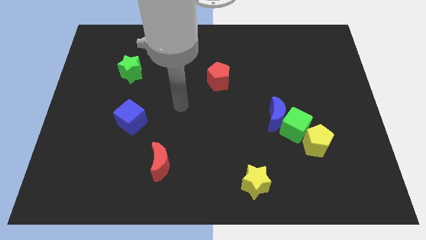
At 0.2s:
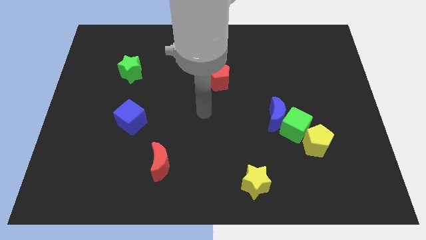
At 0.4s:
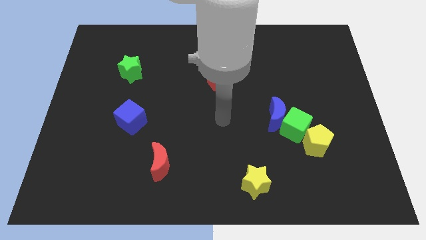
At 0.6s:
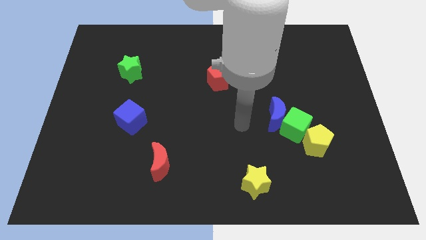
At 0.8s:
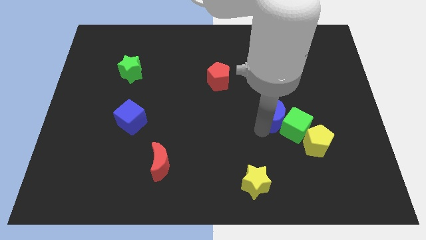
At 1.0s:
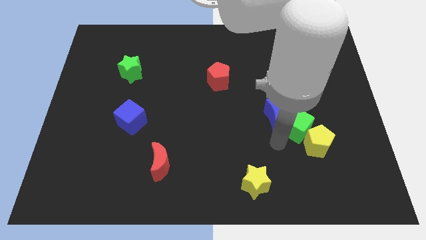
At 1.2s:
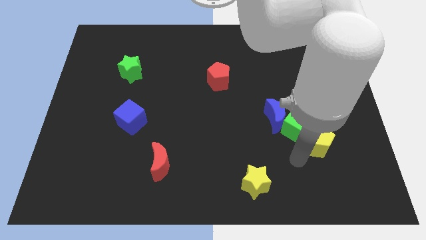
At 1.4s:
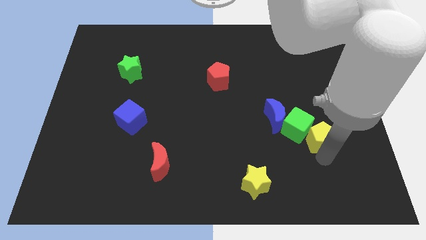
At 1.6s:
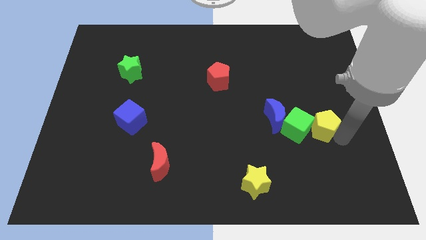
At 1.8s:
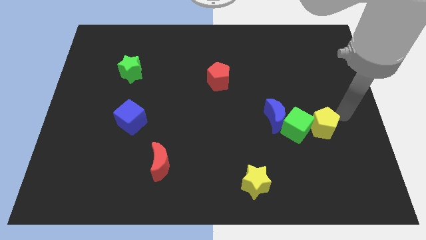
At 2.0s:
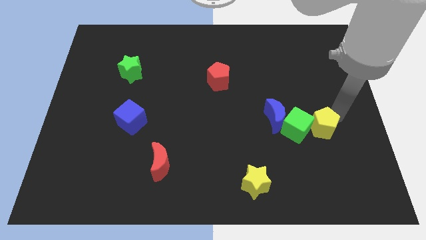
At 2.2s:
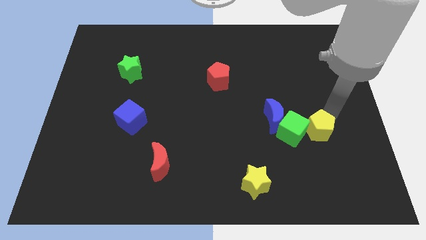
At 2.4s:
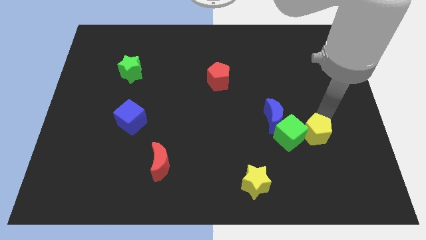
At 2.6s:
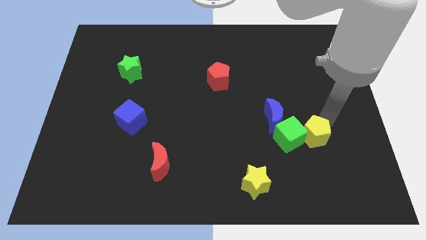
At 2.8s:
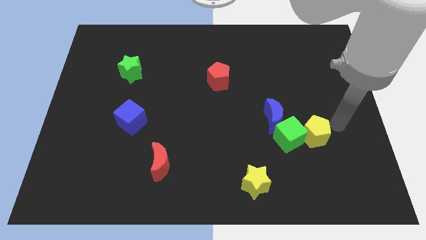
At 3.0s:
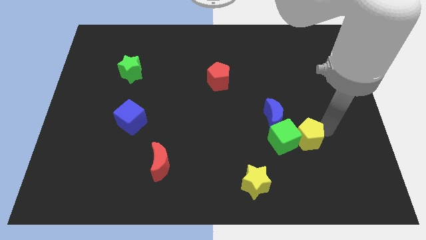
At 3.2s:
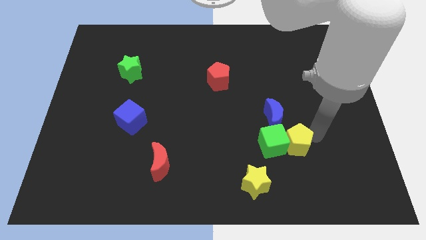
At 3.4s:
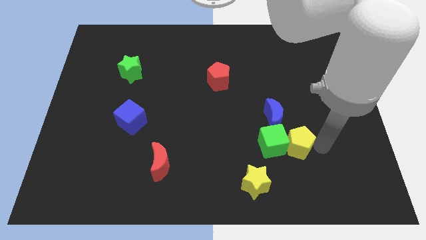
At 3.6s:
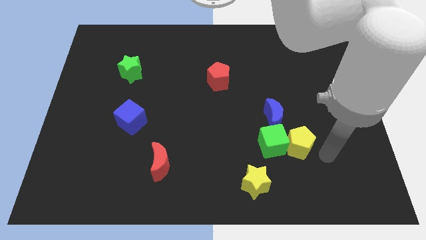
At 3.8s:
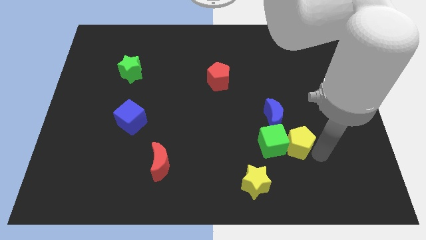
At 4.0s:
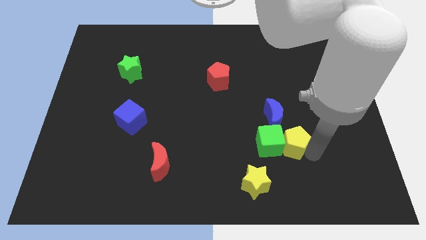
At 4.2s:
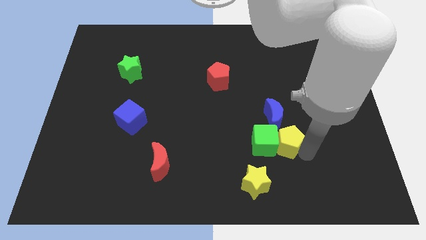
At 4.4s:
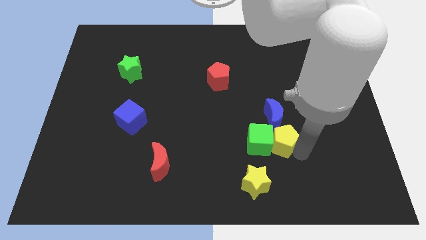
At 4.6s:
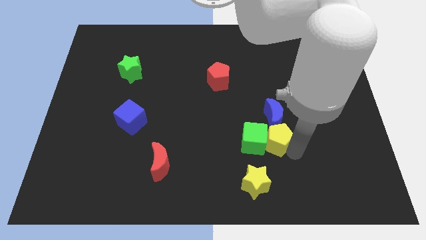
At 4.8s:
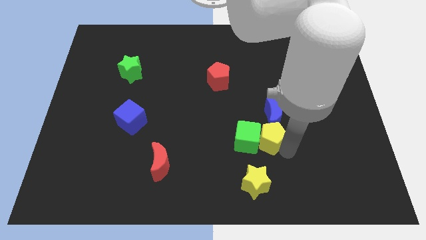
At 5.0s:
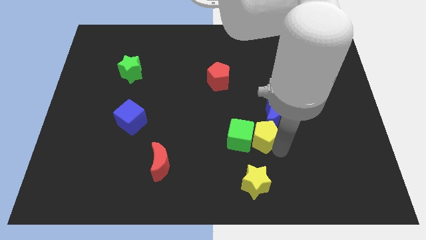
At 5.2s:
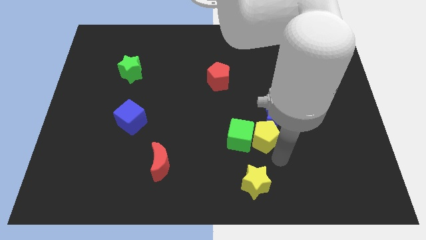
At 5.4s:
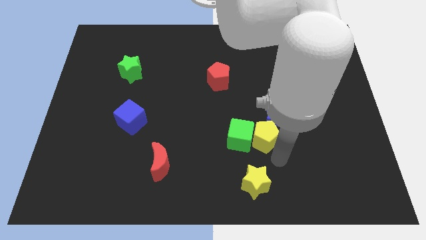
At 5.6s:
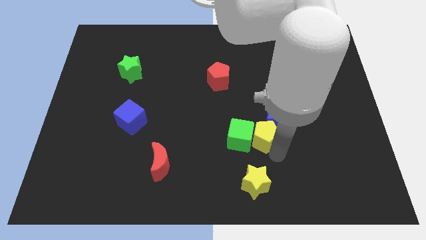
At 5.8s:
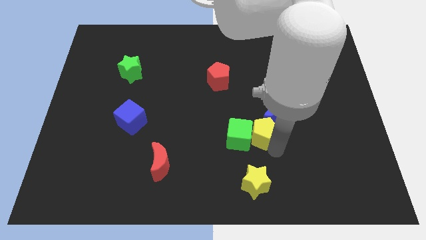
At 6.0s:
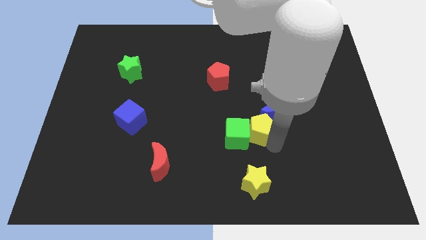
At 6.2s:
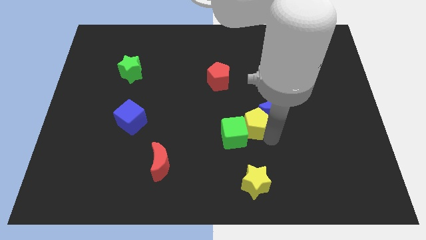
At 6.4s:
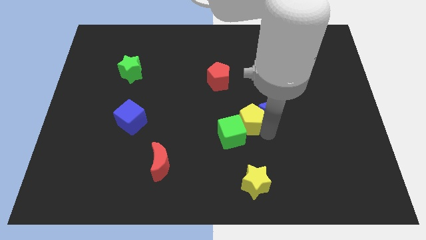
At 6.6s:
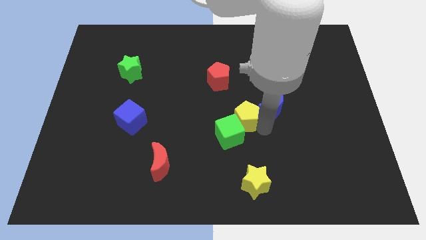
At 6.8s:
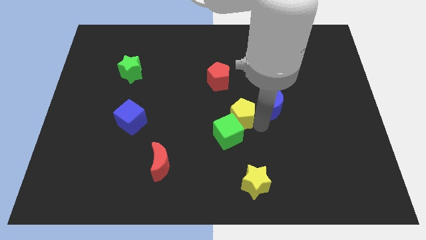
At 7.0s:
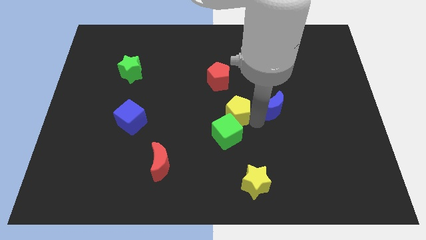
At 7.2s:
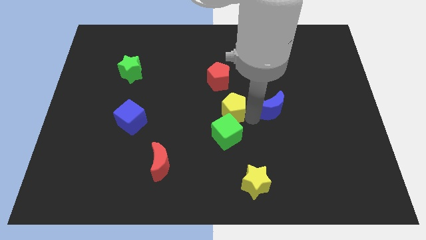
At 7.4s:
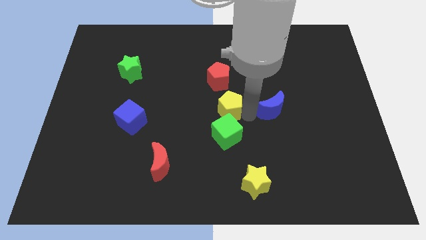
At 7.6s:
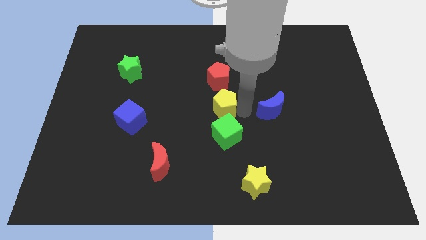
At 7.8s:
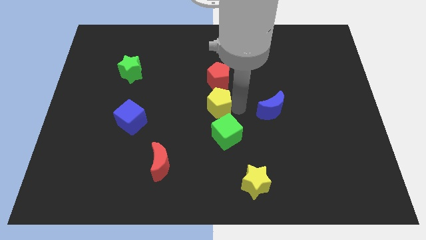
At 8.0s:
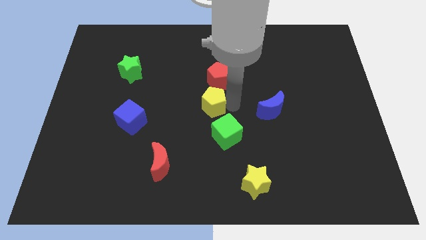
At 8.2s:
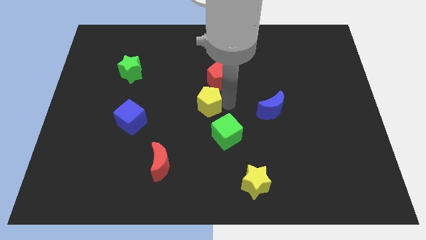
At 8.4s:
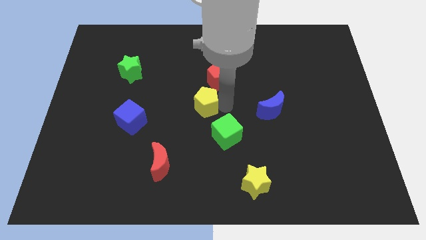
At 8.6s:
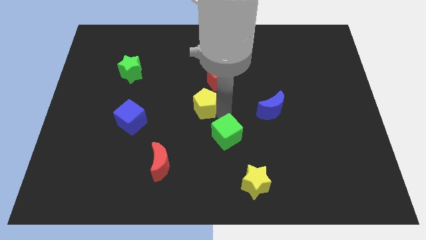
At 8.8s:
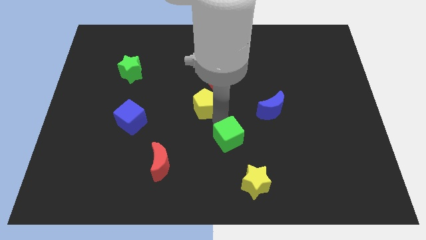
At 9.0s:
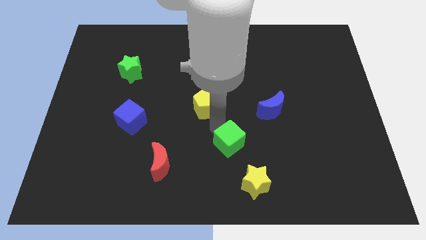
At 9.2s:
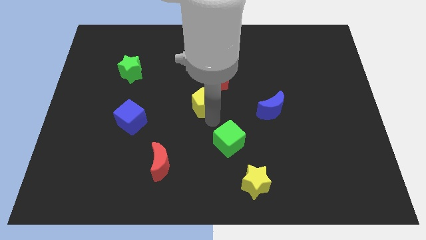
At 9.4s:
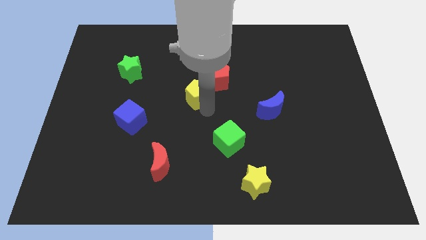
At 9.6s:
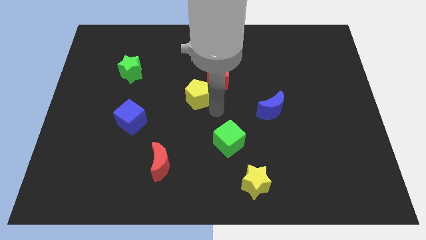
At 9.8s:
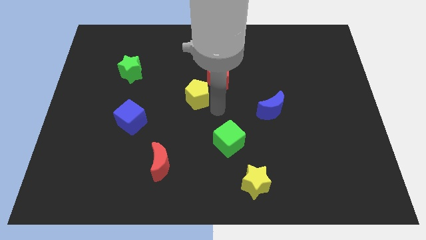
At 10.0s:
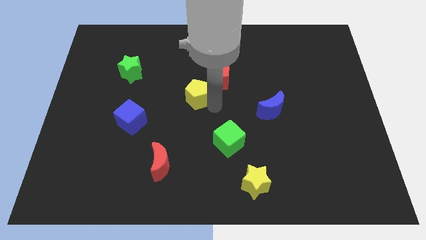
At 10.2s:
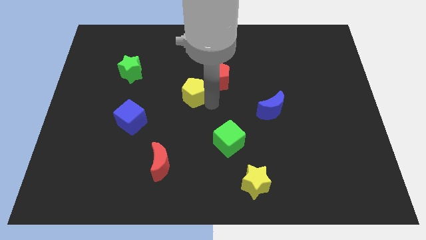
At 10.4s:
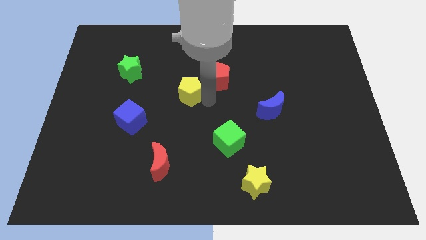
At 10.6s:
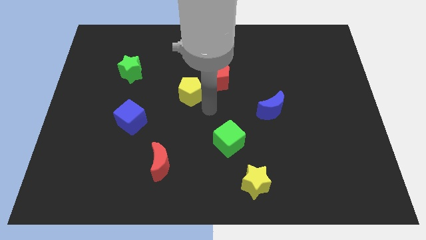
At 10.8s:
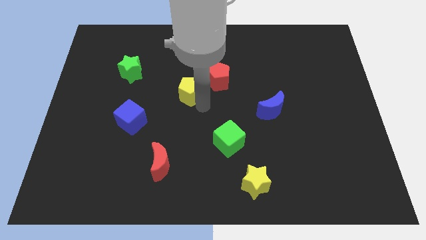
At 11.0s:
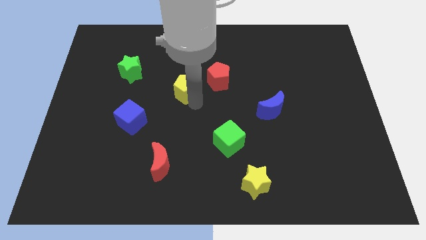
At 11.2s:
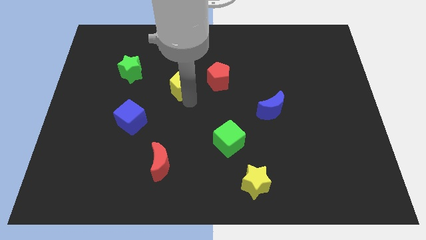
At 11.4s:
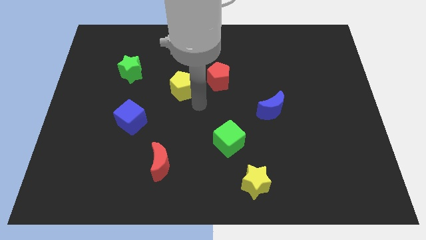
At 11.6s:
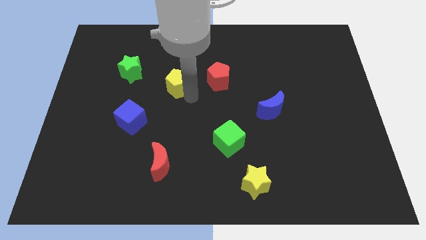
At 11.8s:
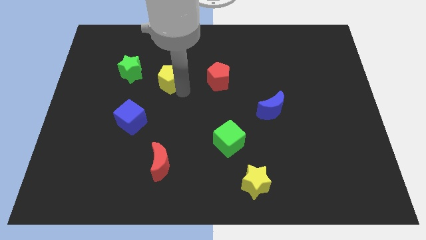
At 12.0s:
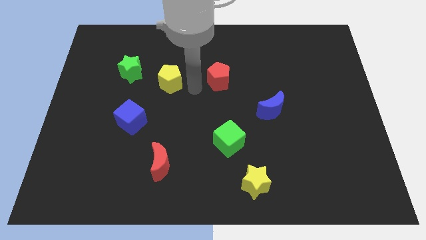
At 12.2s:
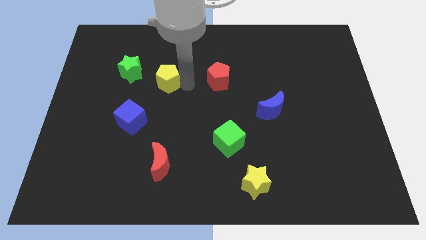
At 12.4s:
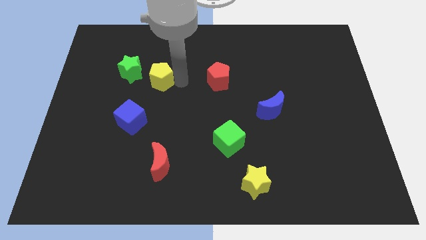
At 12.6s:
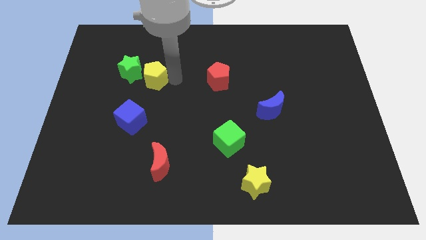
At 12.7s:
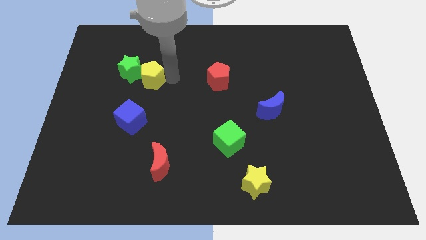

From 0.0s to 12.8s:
slide the yellow pentagon towards the green star
